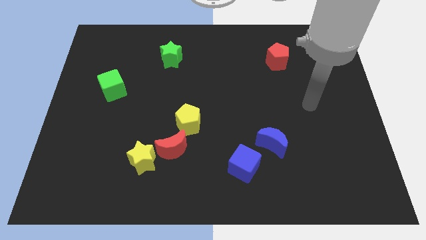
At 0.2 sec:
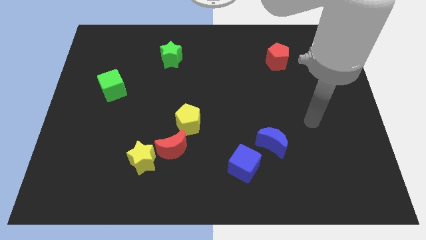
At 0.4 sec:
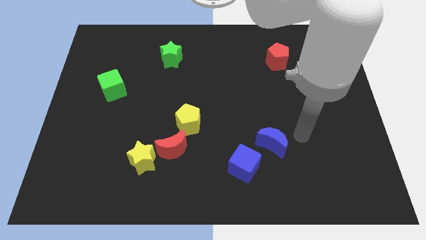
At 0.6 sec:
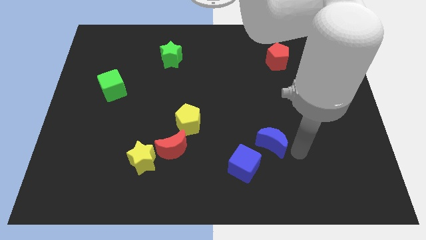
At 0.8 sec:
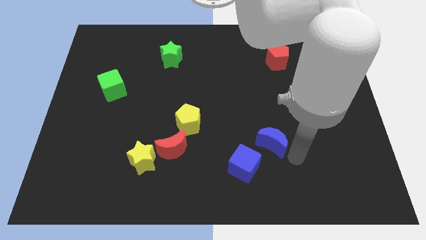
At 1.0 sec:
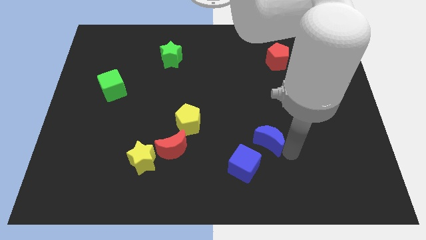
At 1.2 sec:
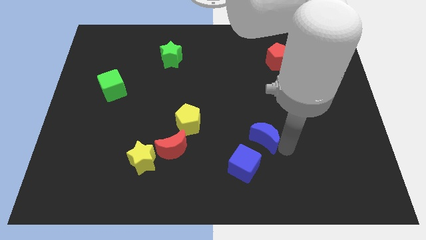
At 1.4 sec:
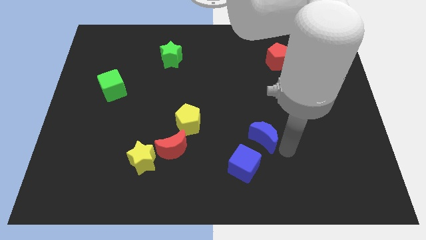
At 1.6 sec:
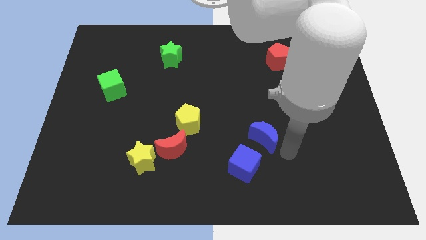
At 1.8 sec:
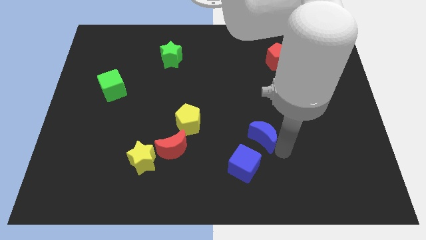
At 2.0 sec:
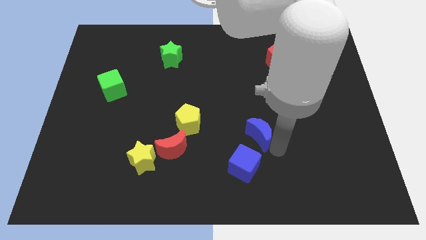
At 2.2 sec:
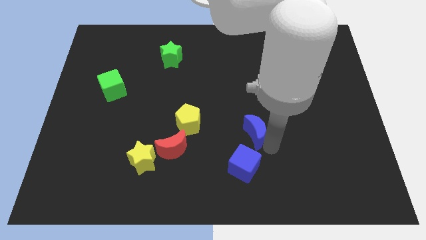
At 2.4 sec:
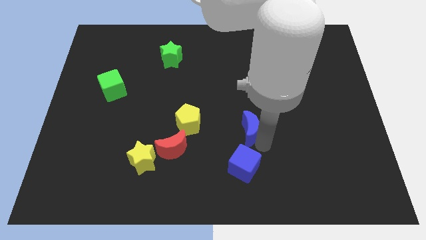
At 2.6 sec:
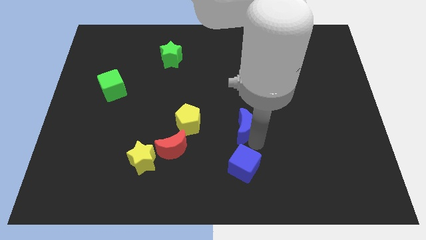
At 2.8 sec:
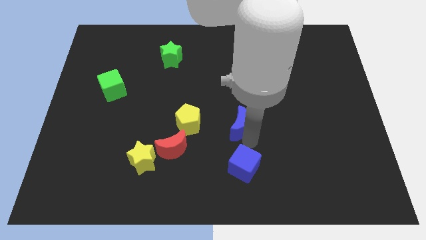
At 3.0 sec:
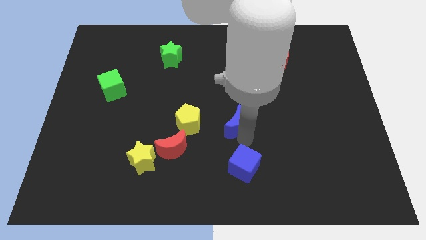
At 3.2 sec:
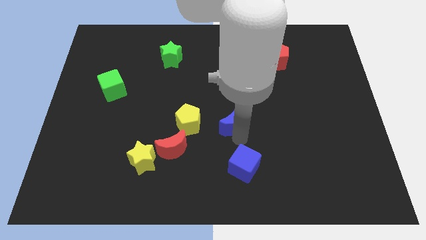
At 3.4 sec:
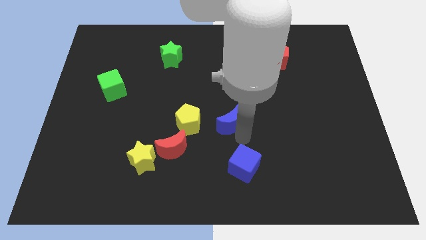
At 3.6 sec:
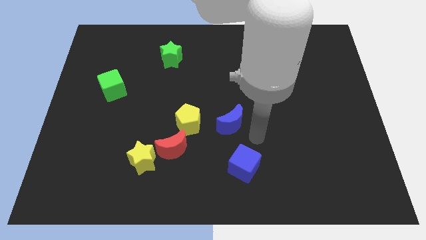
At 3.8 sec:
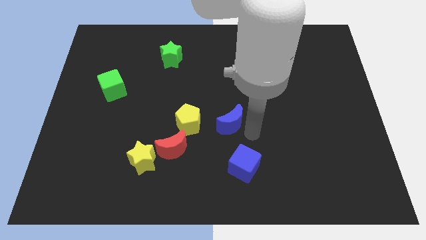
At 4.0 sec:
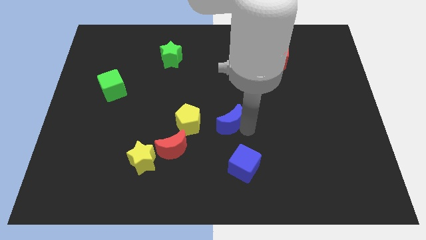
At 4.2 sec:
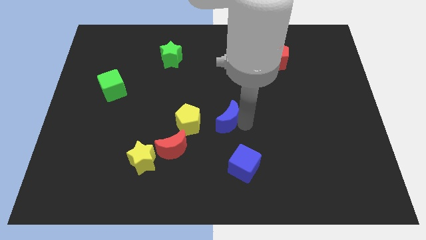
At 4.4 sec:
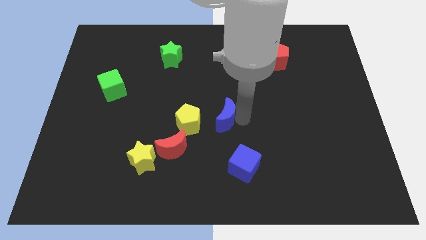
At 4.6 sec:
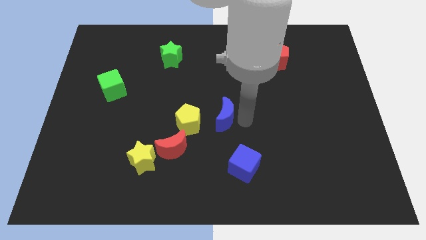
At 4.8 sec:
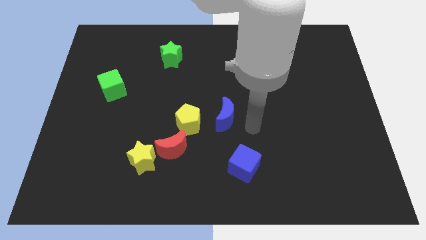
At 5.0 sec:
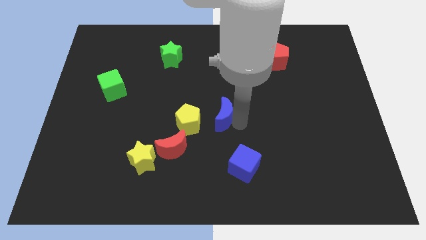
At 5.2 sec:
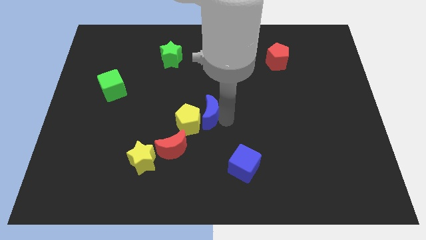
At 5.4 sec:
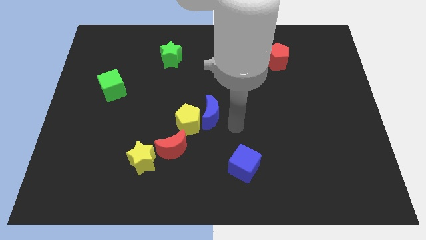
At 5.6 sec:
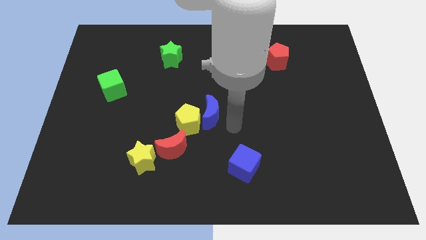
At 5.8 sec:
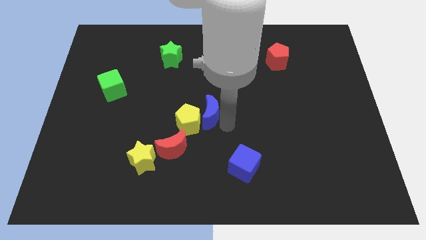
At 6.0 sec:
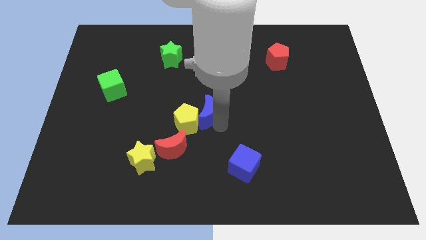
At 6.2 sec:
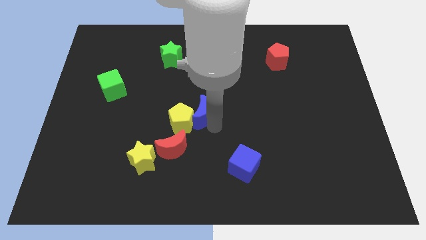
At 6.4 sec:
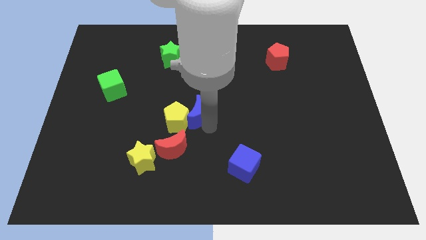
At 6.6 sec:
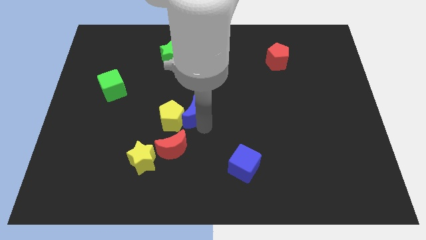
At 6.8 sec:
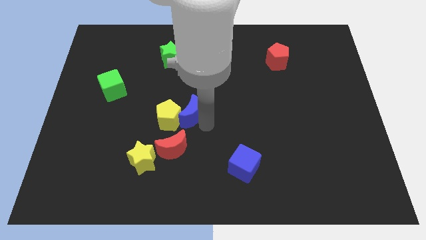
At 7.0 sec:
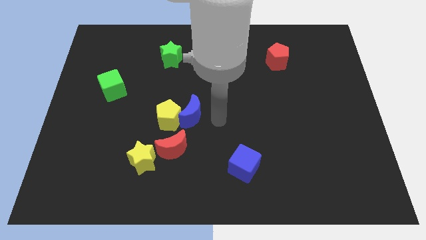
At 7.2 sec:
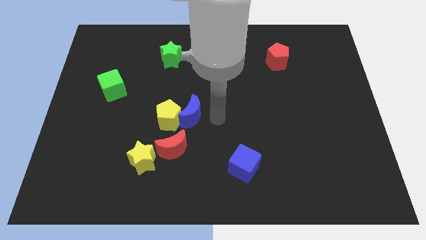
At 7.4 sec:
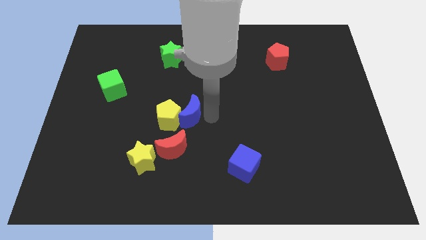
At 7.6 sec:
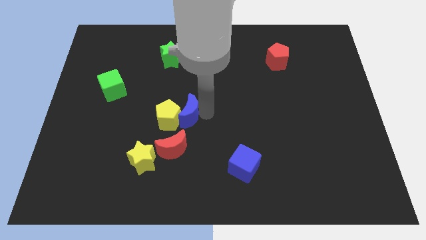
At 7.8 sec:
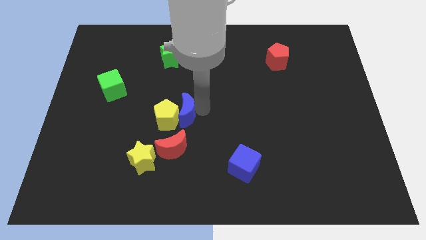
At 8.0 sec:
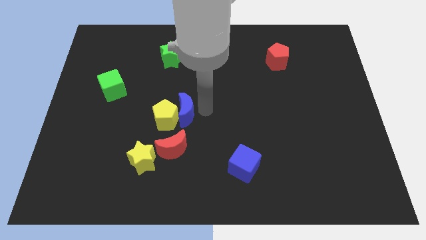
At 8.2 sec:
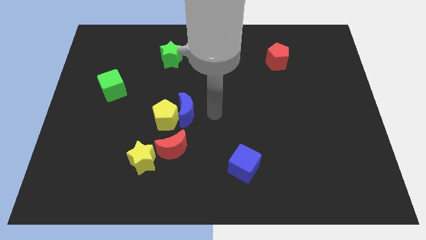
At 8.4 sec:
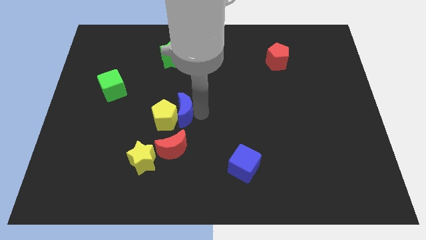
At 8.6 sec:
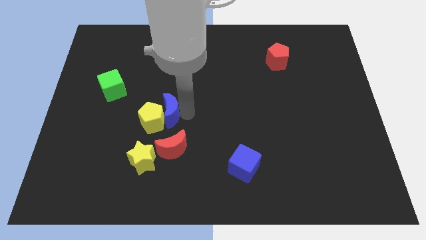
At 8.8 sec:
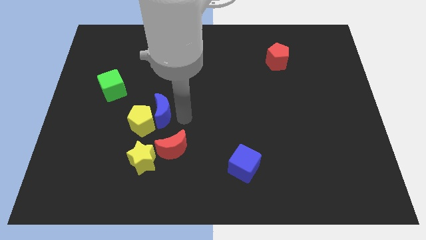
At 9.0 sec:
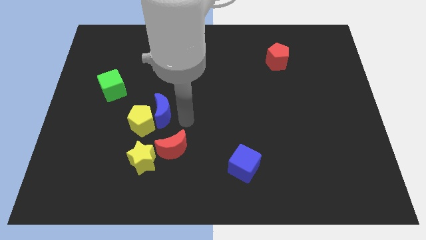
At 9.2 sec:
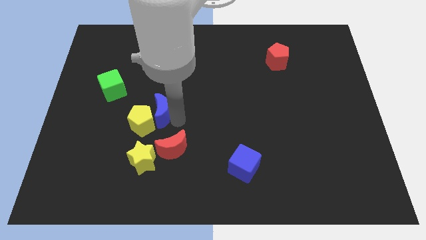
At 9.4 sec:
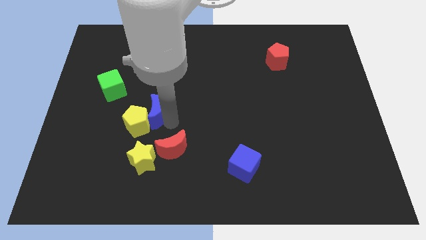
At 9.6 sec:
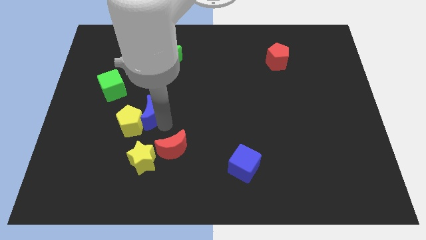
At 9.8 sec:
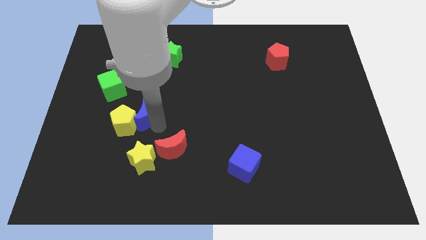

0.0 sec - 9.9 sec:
push the blue moon to the bottom right side of the green cube

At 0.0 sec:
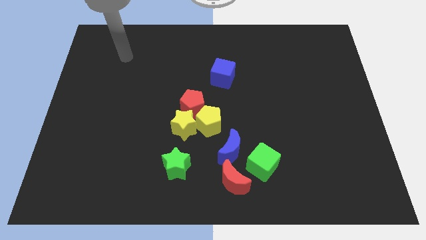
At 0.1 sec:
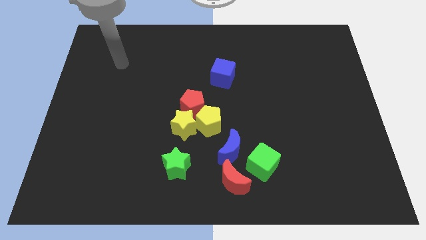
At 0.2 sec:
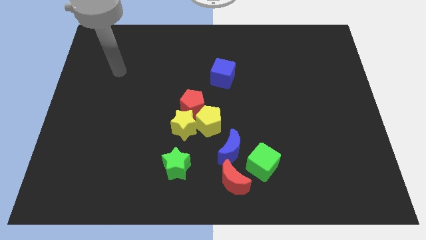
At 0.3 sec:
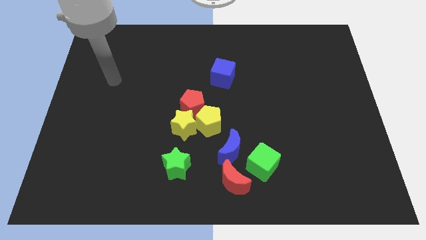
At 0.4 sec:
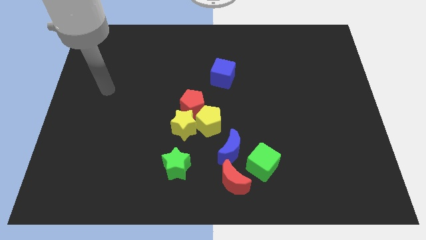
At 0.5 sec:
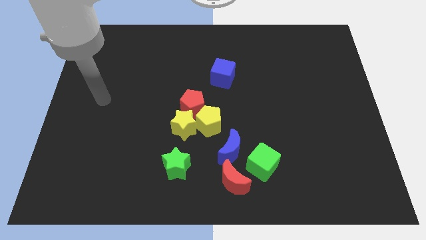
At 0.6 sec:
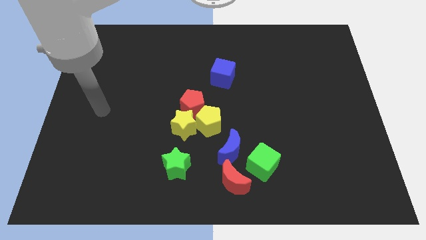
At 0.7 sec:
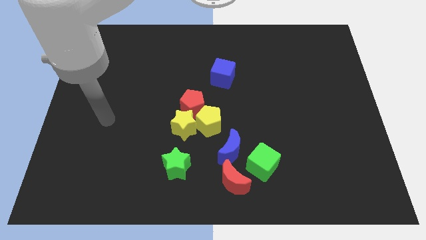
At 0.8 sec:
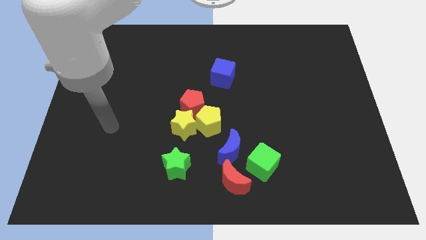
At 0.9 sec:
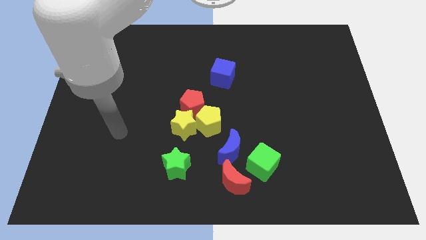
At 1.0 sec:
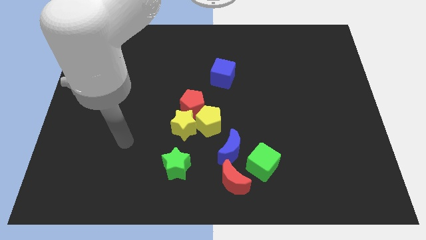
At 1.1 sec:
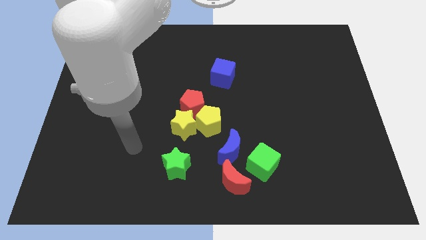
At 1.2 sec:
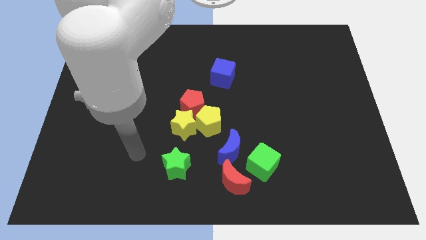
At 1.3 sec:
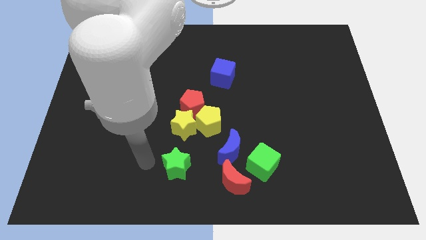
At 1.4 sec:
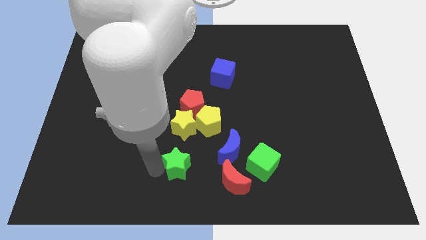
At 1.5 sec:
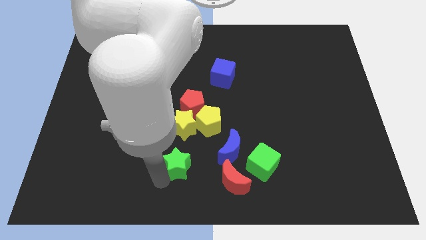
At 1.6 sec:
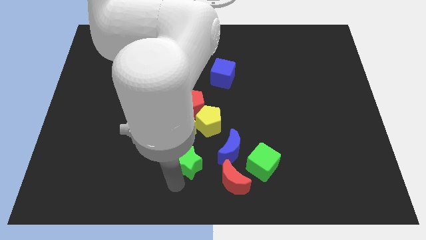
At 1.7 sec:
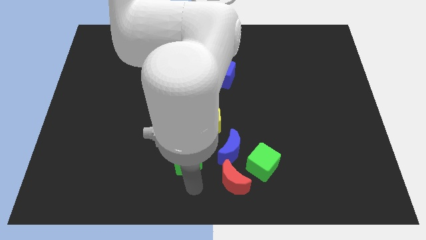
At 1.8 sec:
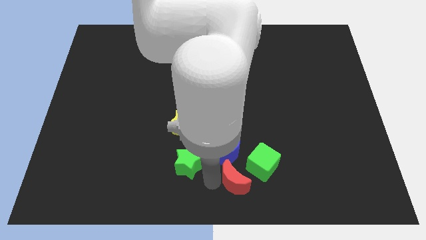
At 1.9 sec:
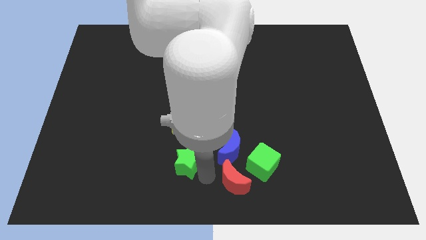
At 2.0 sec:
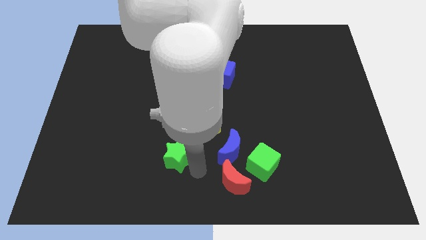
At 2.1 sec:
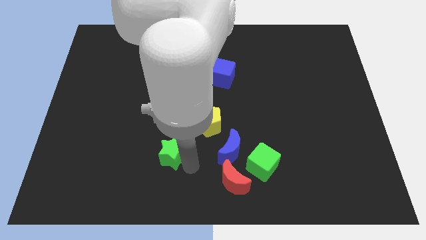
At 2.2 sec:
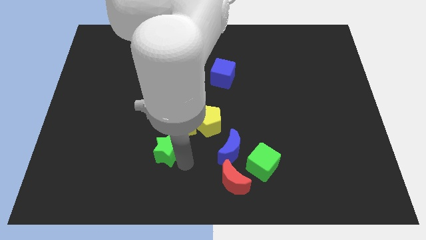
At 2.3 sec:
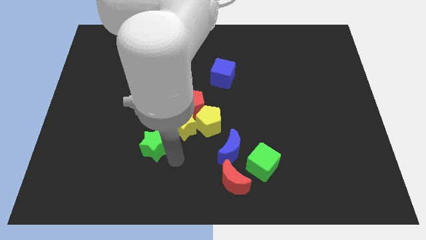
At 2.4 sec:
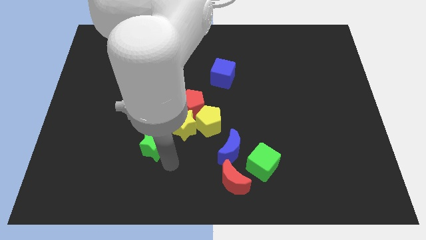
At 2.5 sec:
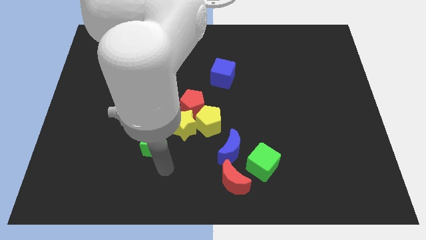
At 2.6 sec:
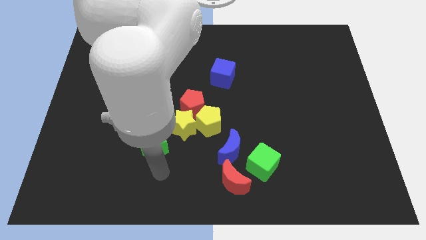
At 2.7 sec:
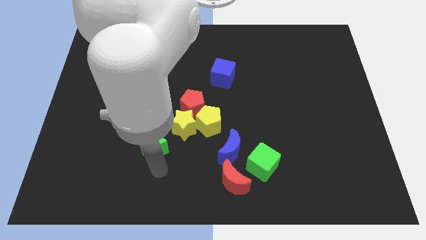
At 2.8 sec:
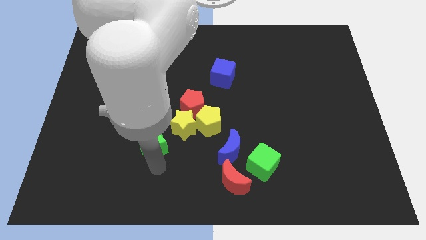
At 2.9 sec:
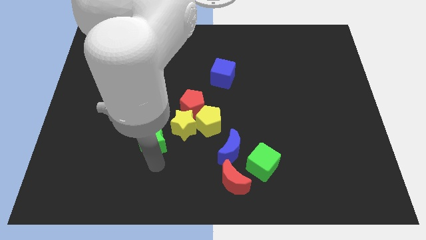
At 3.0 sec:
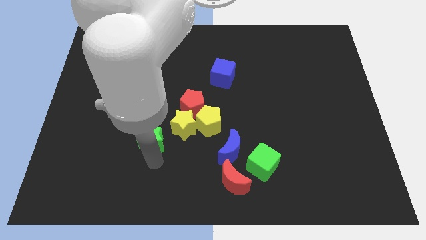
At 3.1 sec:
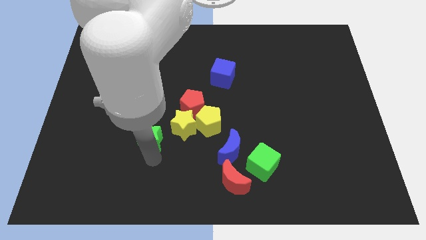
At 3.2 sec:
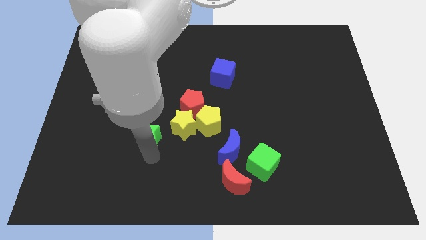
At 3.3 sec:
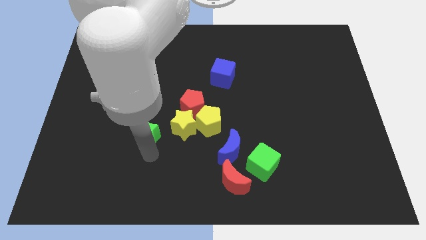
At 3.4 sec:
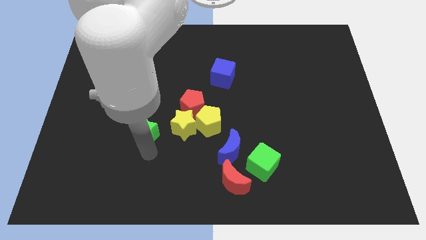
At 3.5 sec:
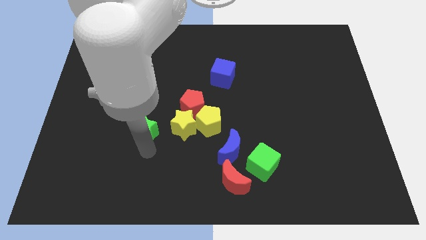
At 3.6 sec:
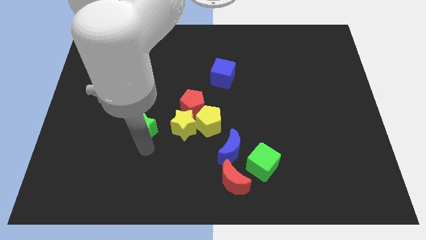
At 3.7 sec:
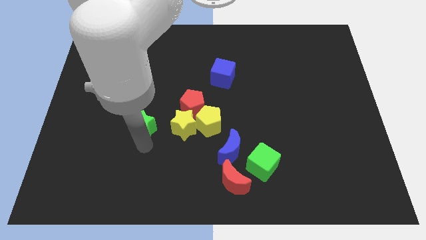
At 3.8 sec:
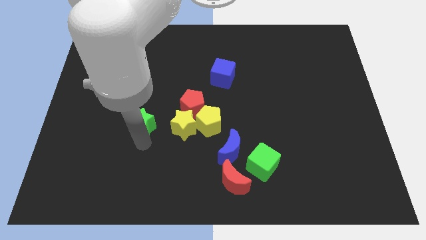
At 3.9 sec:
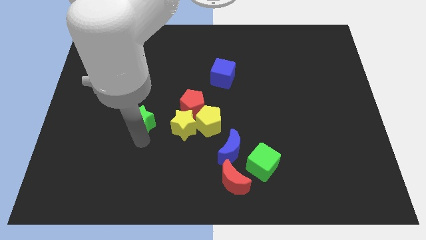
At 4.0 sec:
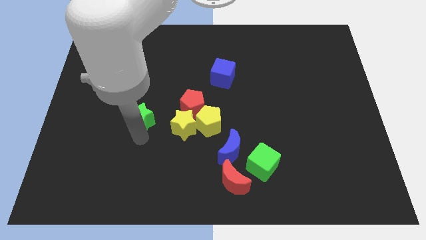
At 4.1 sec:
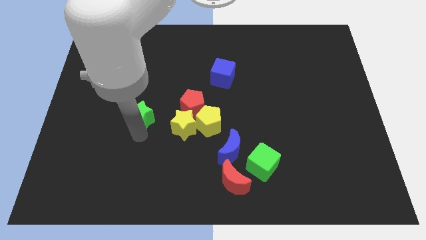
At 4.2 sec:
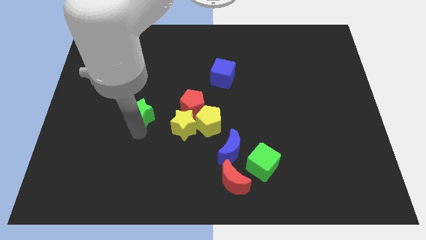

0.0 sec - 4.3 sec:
push the green star to the top left of the yellow star
